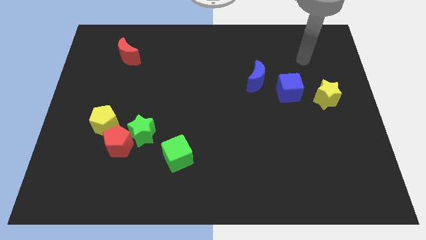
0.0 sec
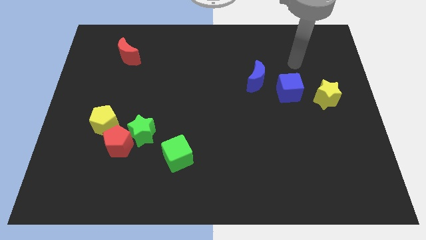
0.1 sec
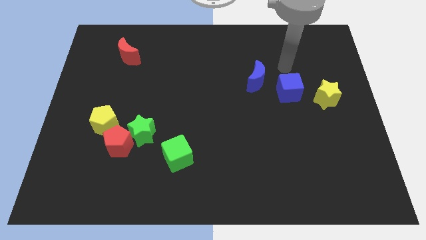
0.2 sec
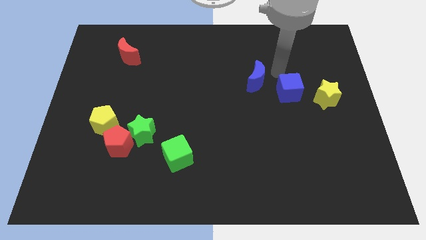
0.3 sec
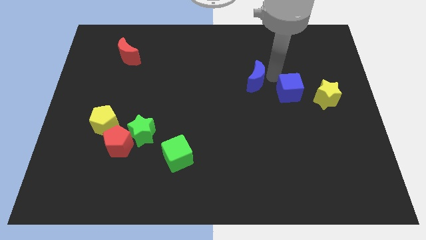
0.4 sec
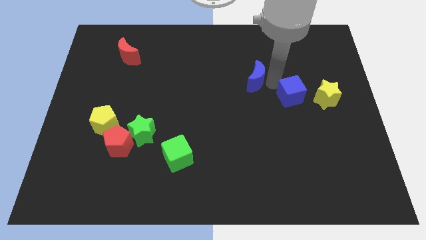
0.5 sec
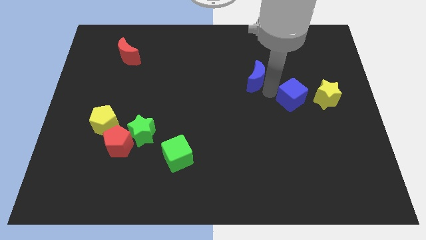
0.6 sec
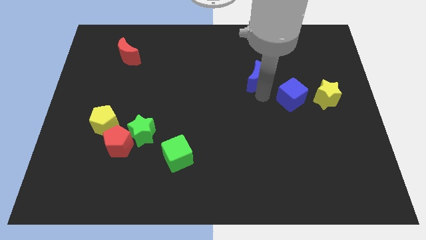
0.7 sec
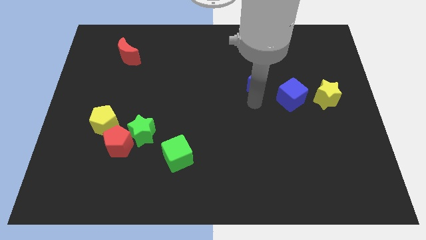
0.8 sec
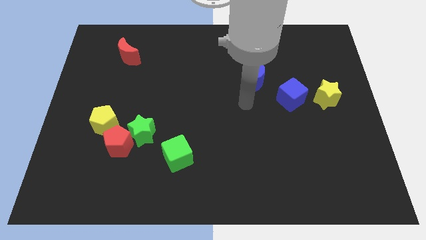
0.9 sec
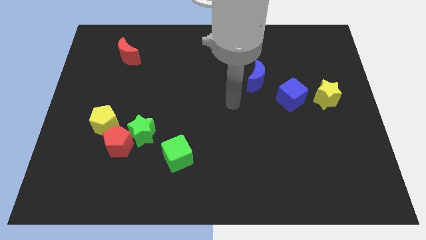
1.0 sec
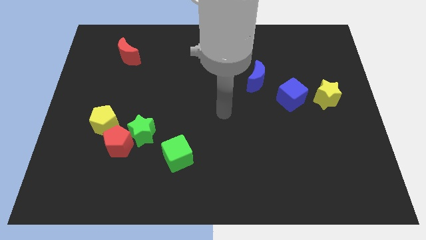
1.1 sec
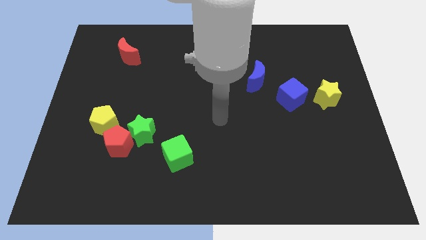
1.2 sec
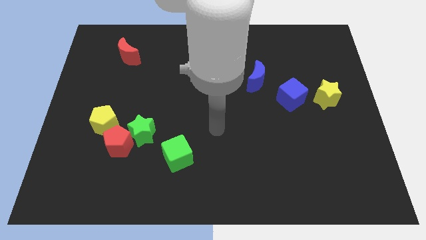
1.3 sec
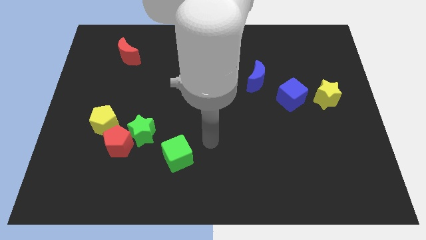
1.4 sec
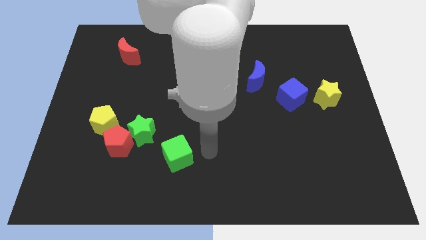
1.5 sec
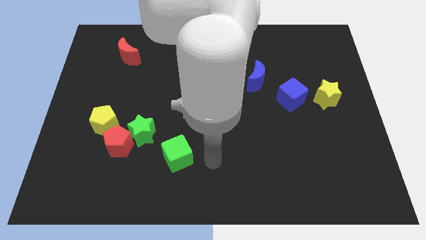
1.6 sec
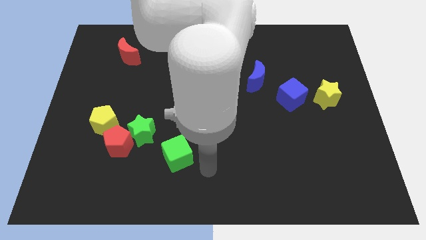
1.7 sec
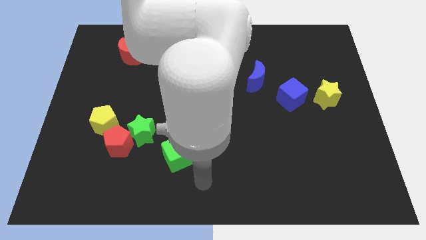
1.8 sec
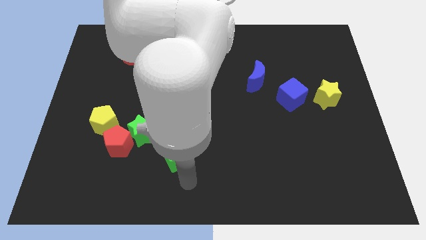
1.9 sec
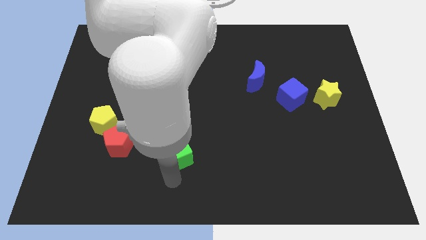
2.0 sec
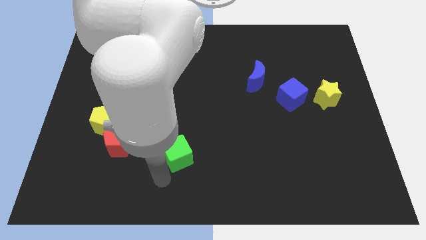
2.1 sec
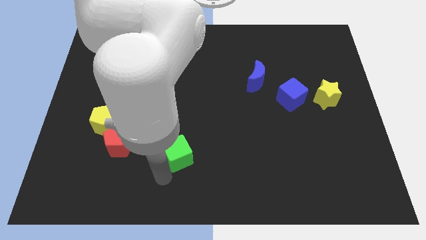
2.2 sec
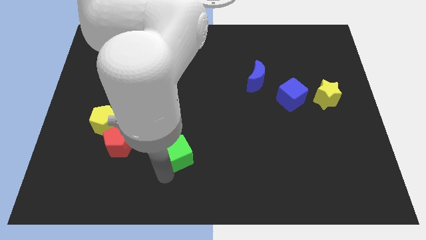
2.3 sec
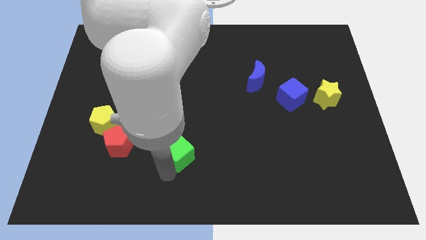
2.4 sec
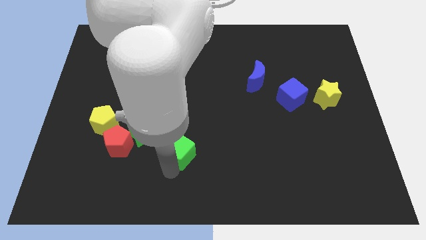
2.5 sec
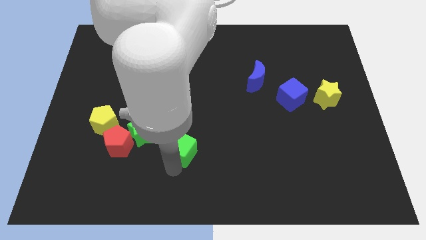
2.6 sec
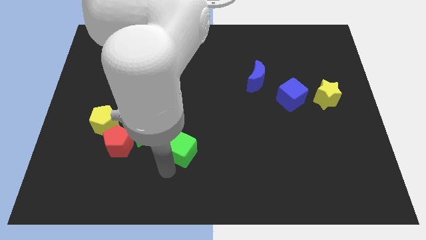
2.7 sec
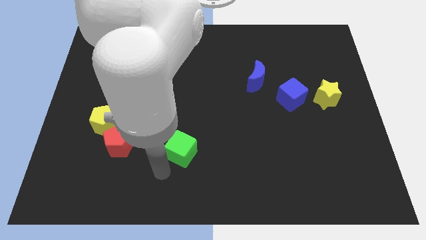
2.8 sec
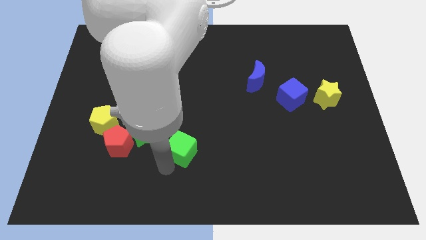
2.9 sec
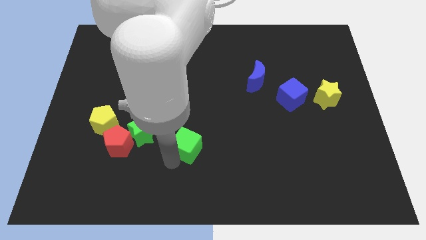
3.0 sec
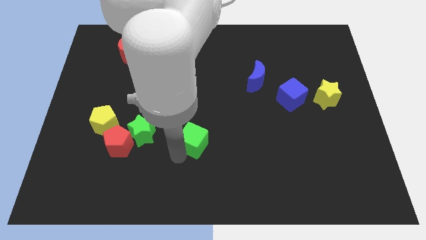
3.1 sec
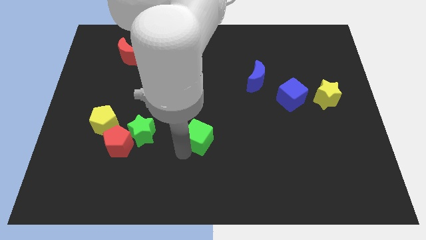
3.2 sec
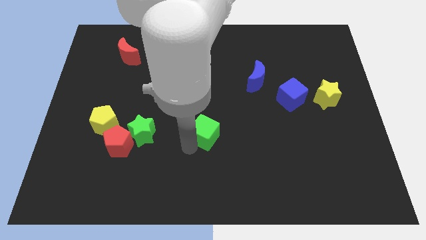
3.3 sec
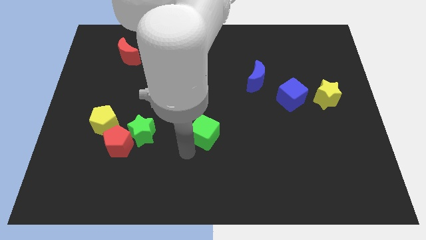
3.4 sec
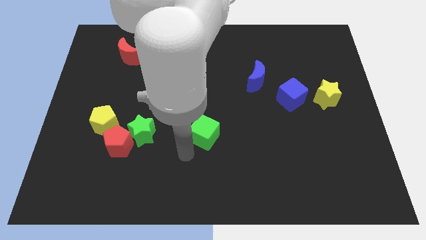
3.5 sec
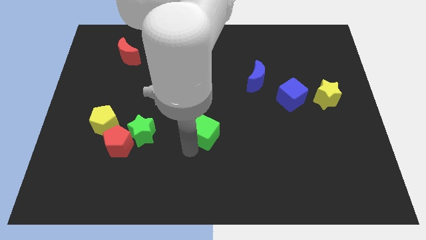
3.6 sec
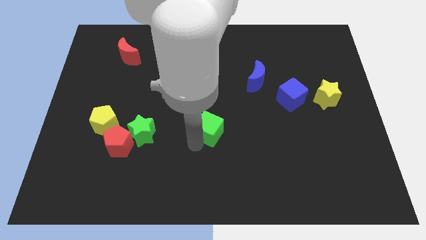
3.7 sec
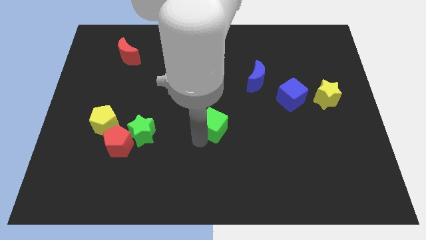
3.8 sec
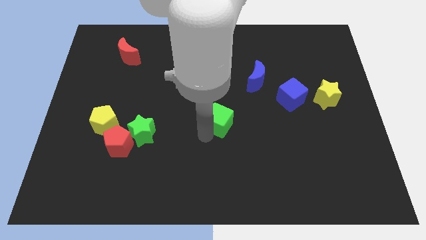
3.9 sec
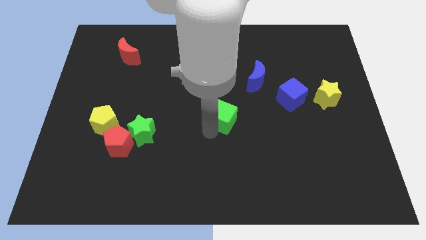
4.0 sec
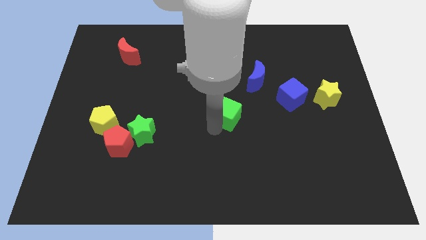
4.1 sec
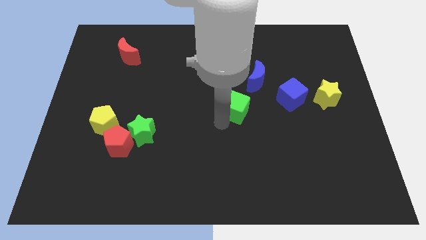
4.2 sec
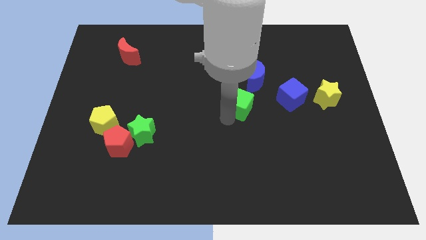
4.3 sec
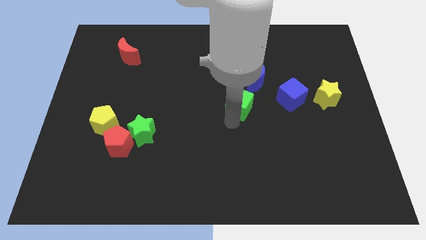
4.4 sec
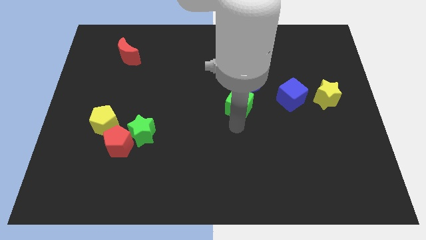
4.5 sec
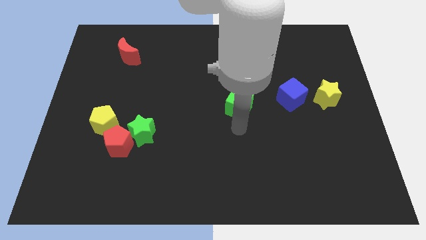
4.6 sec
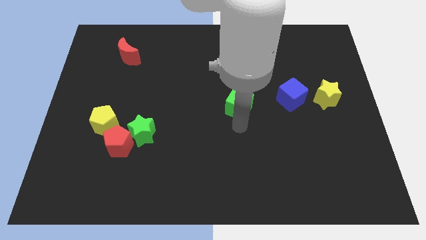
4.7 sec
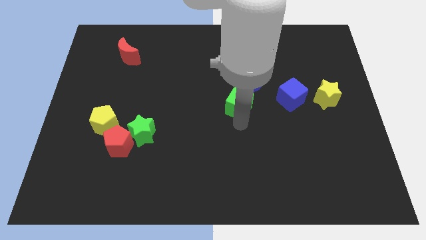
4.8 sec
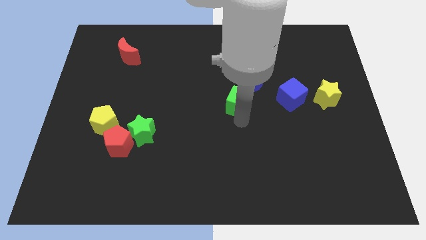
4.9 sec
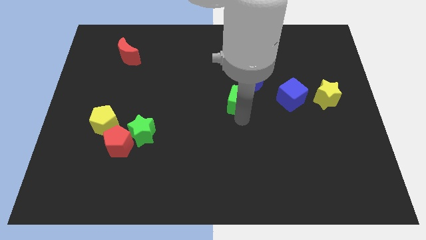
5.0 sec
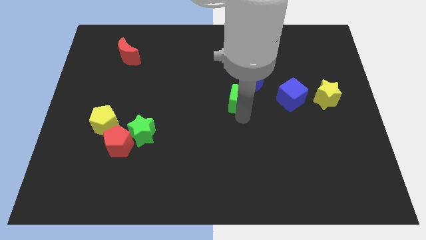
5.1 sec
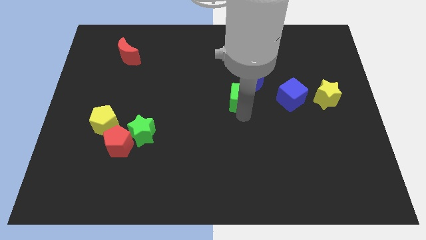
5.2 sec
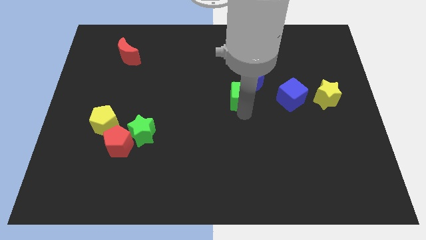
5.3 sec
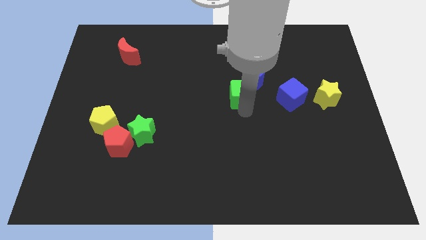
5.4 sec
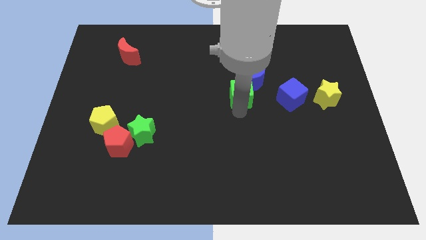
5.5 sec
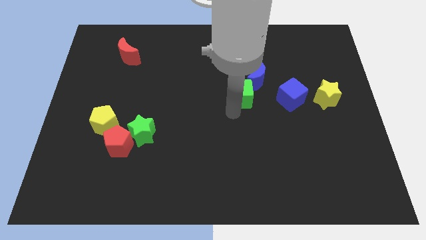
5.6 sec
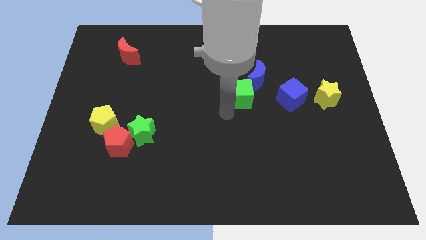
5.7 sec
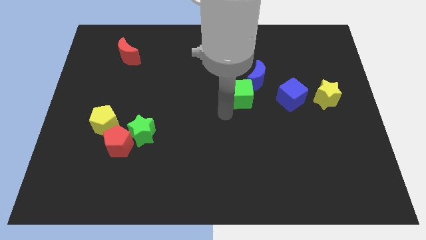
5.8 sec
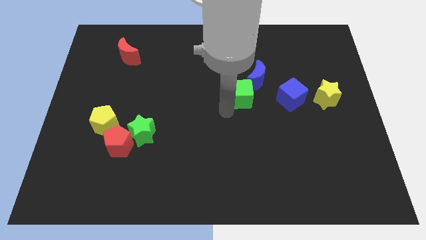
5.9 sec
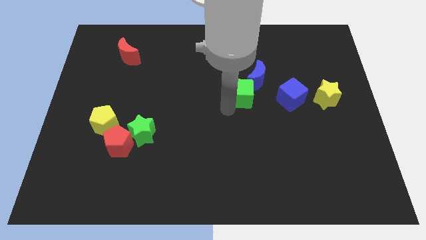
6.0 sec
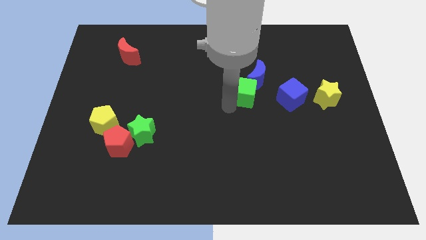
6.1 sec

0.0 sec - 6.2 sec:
push the green cube close to the blue moon
